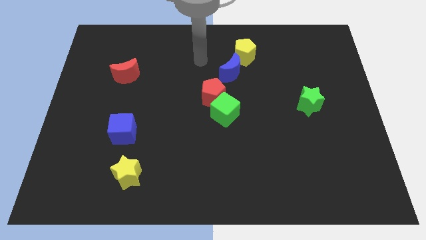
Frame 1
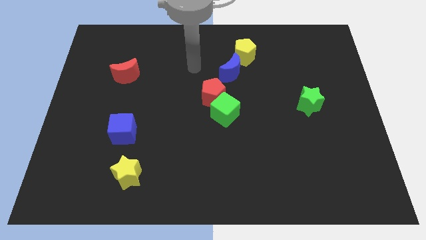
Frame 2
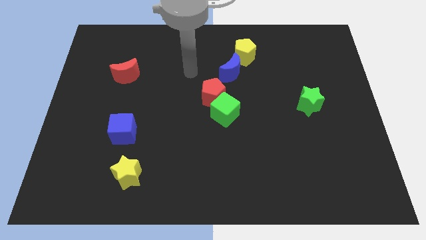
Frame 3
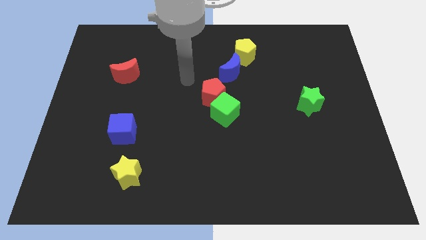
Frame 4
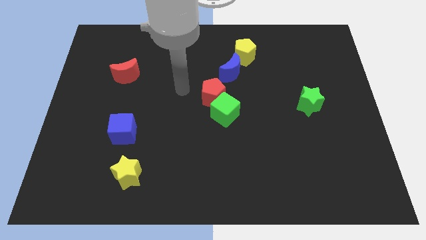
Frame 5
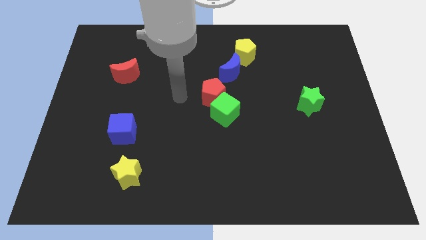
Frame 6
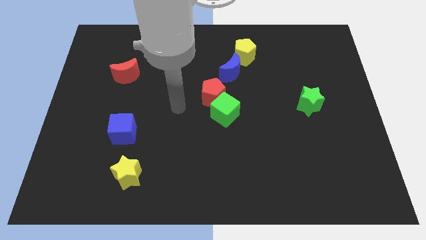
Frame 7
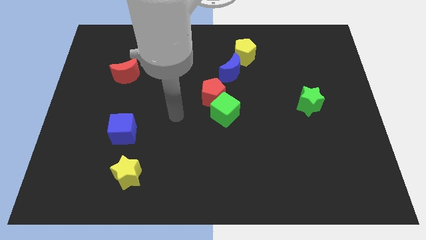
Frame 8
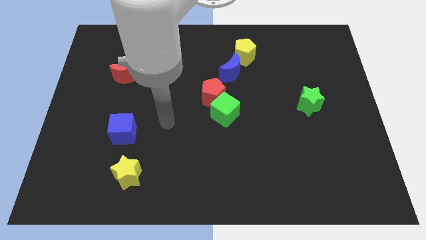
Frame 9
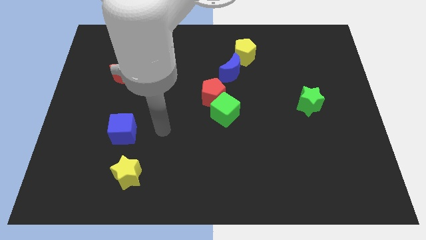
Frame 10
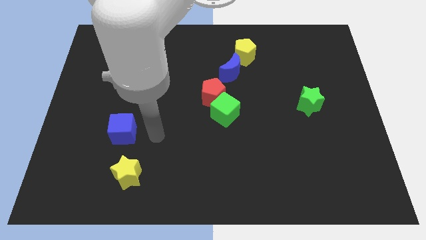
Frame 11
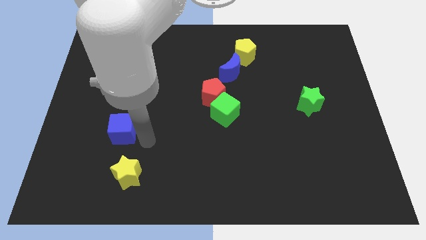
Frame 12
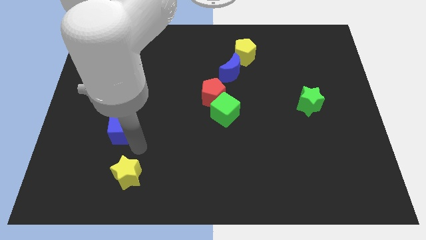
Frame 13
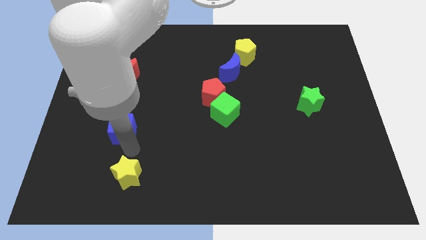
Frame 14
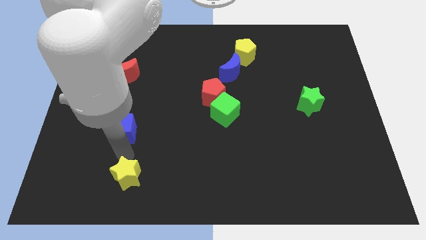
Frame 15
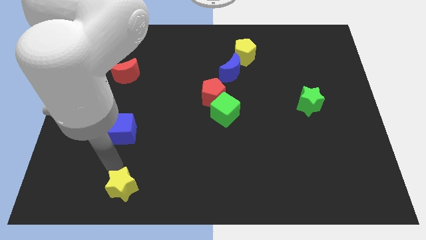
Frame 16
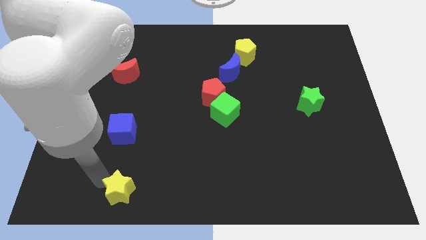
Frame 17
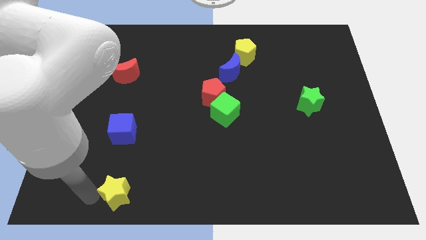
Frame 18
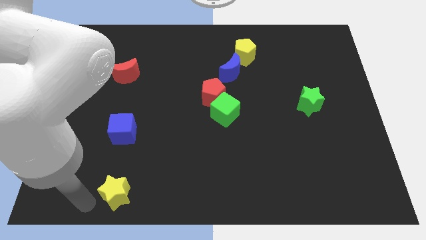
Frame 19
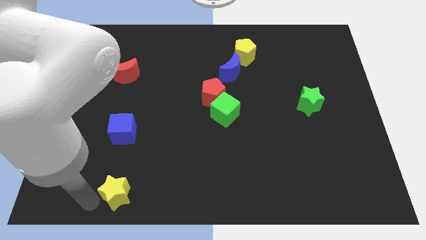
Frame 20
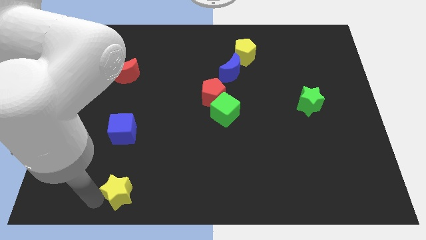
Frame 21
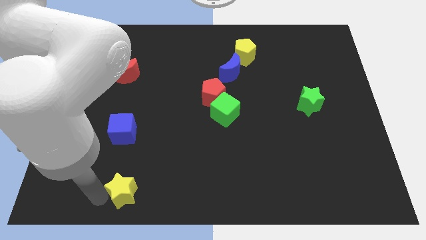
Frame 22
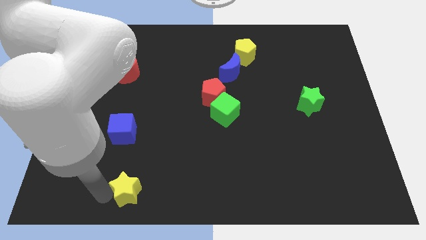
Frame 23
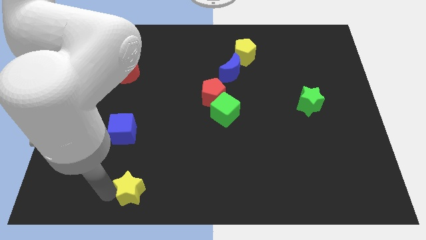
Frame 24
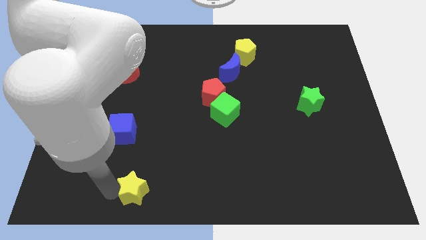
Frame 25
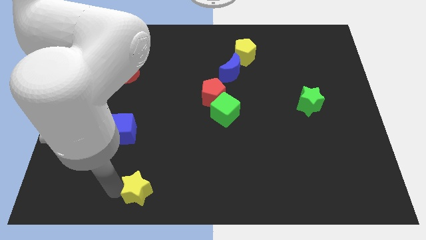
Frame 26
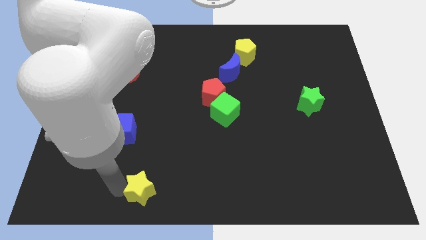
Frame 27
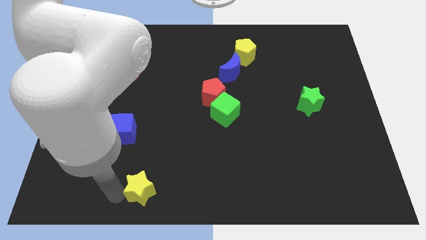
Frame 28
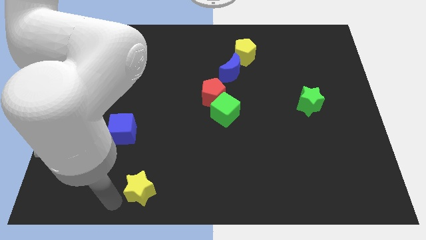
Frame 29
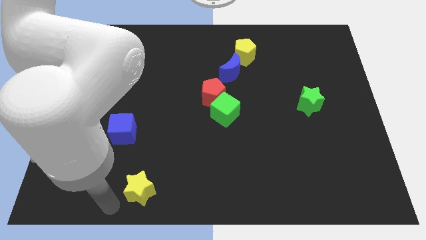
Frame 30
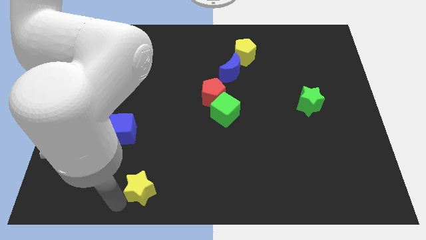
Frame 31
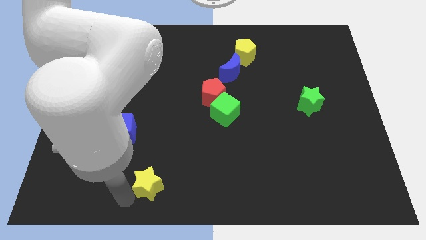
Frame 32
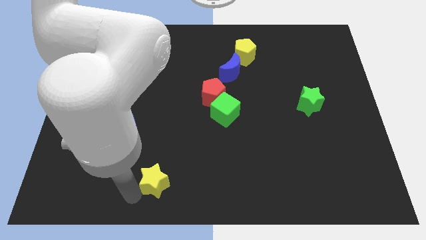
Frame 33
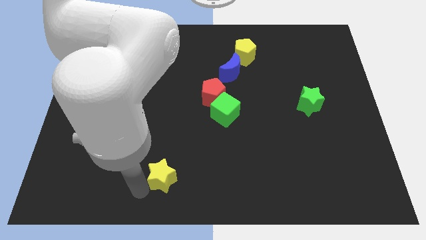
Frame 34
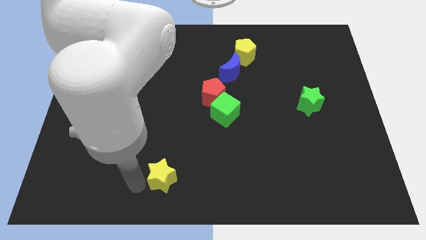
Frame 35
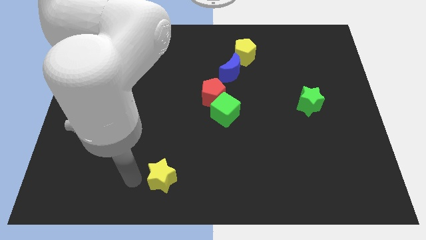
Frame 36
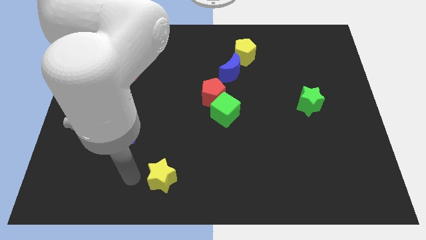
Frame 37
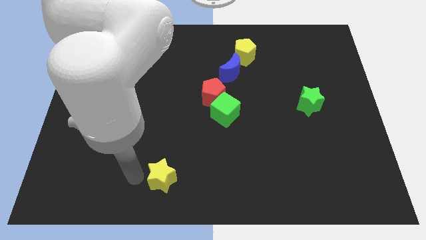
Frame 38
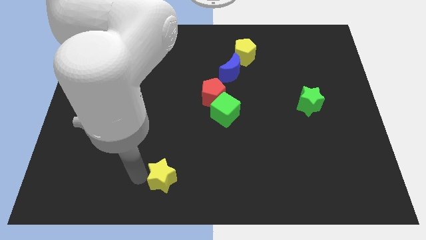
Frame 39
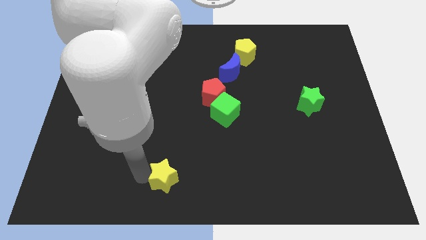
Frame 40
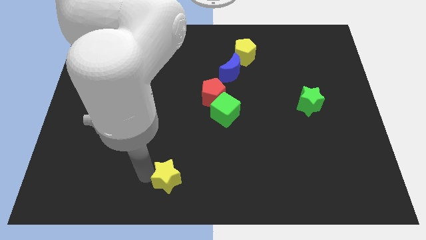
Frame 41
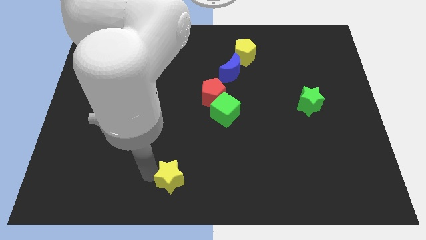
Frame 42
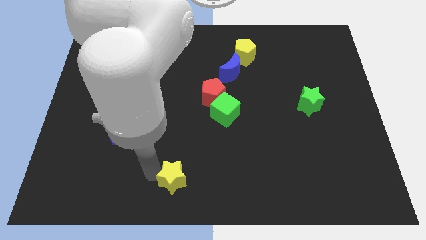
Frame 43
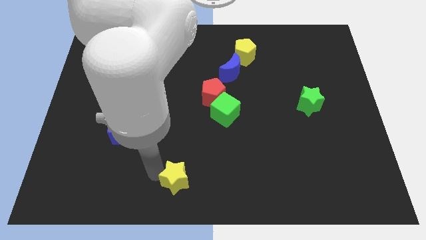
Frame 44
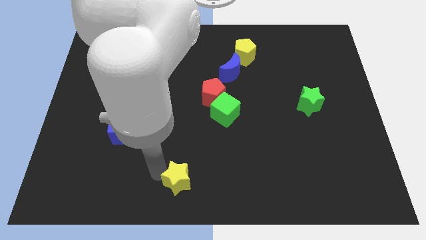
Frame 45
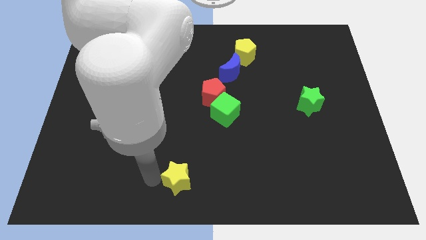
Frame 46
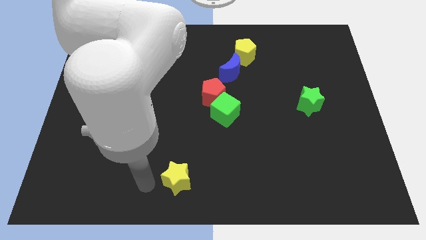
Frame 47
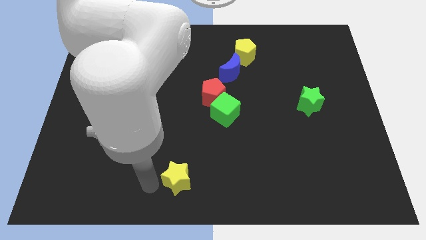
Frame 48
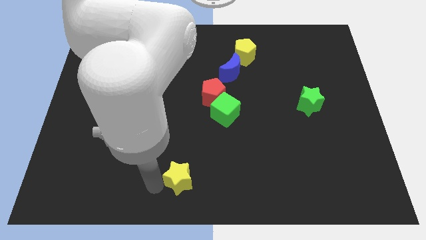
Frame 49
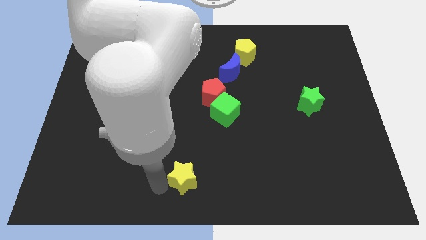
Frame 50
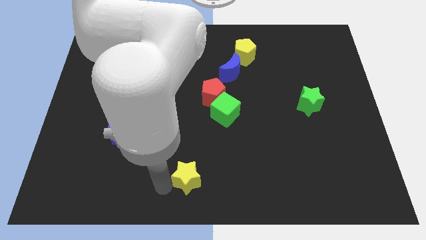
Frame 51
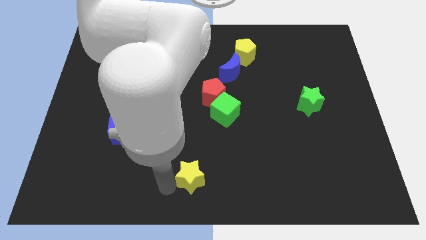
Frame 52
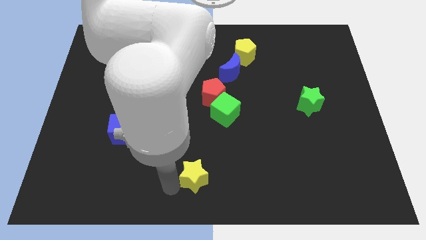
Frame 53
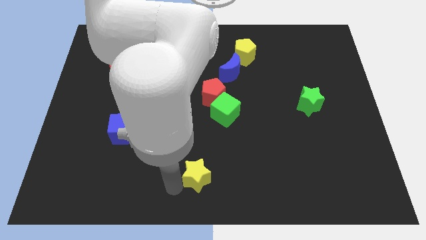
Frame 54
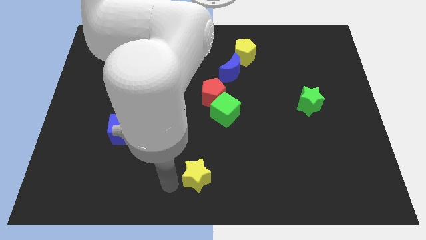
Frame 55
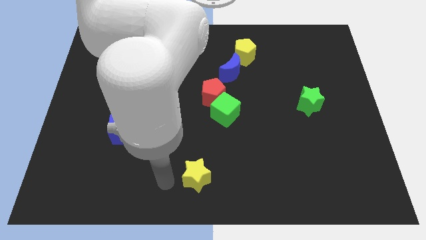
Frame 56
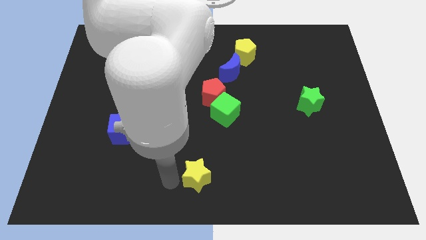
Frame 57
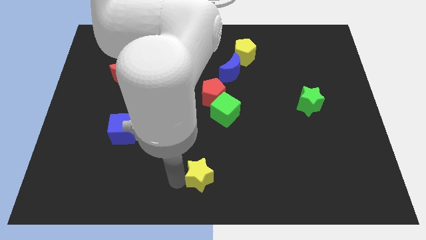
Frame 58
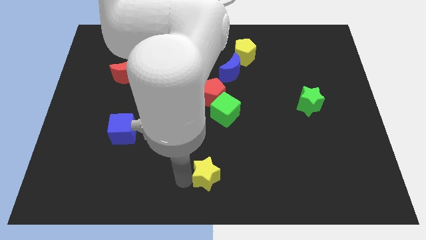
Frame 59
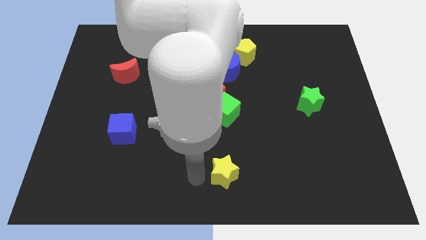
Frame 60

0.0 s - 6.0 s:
slide the yellow star to the right

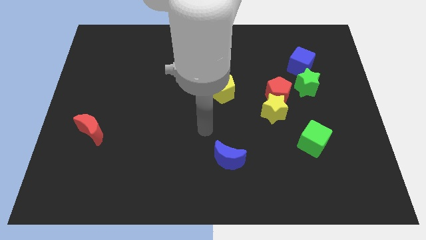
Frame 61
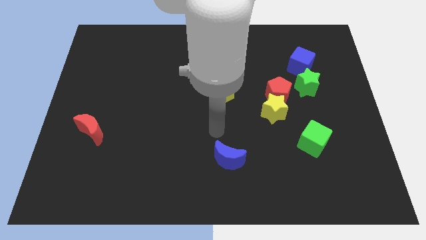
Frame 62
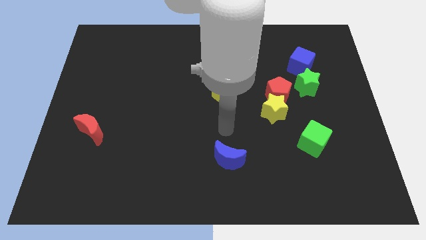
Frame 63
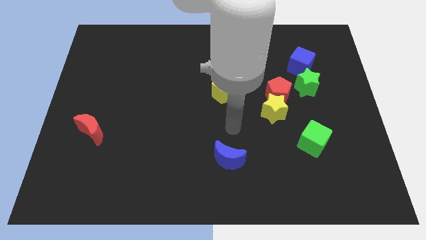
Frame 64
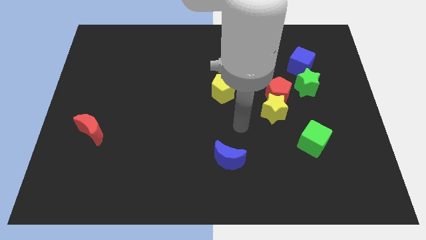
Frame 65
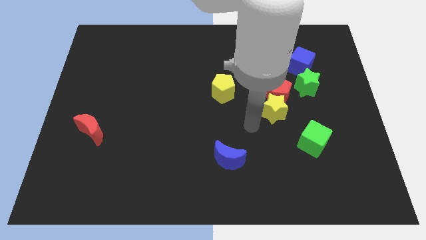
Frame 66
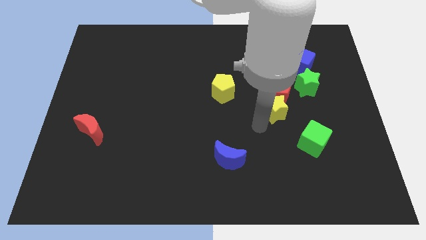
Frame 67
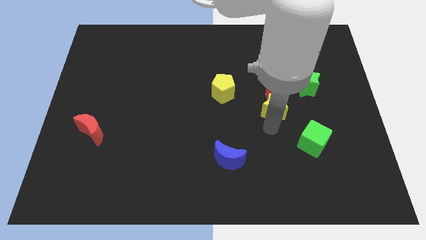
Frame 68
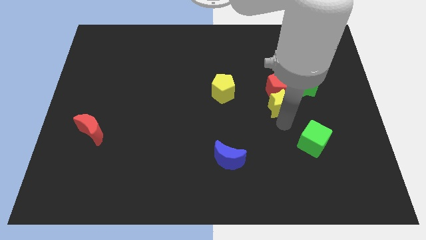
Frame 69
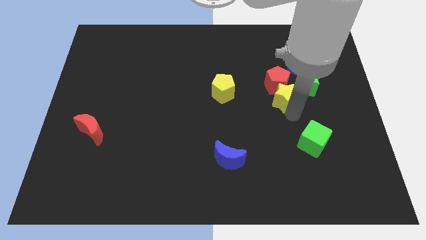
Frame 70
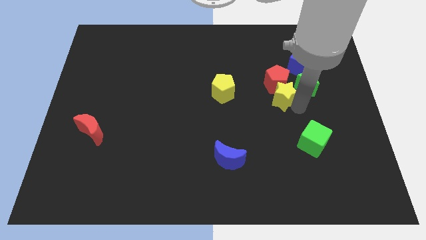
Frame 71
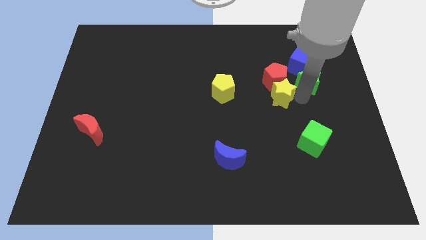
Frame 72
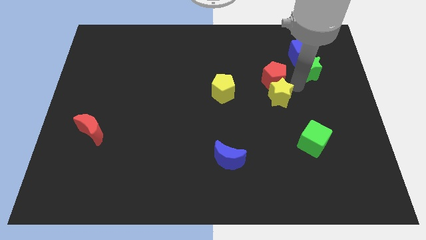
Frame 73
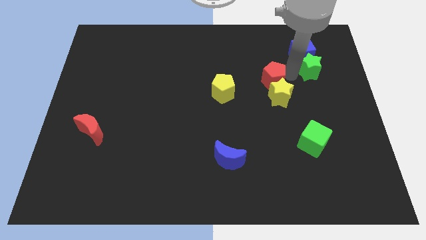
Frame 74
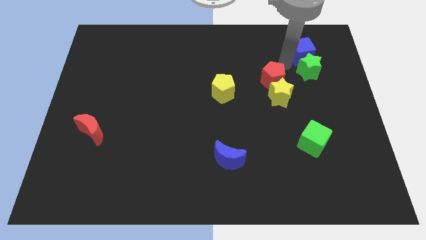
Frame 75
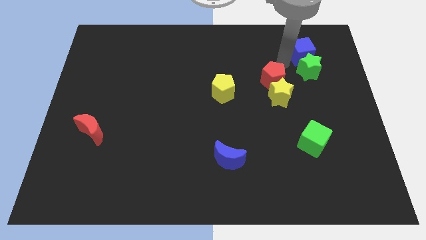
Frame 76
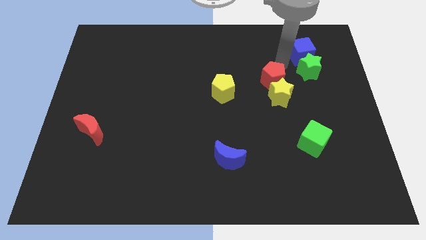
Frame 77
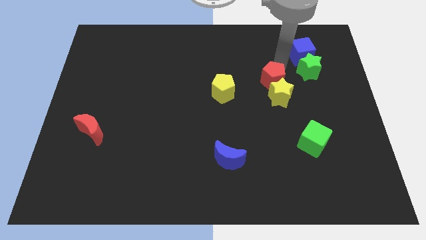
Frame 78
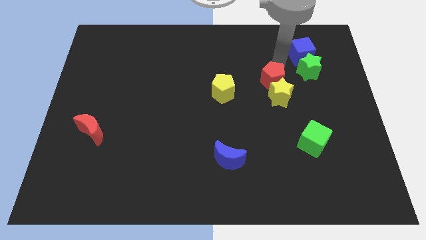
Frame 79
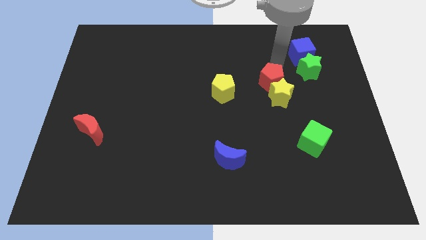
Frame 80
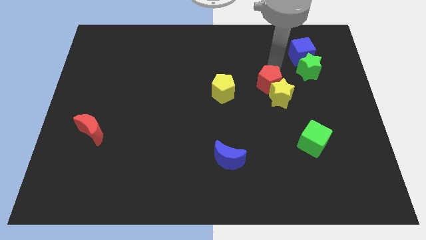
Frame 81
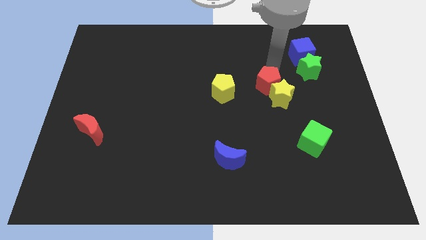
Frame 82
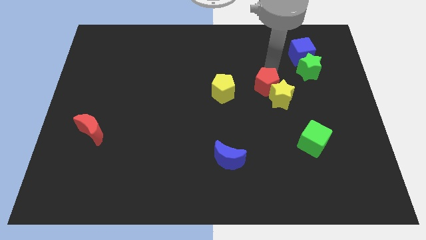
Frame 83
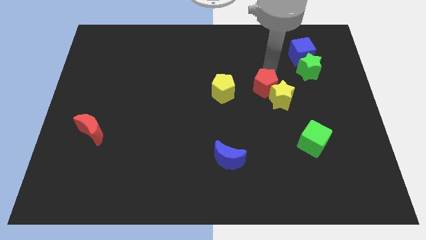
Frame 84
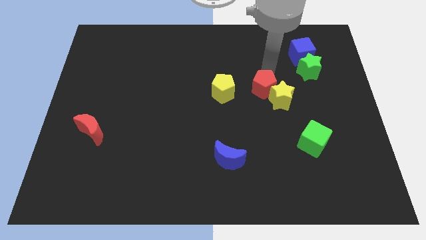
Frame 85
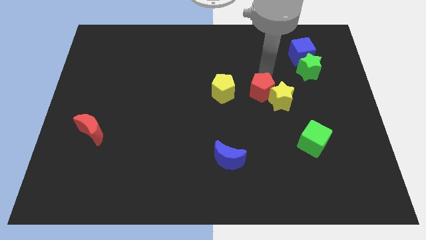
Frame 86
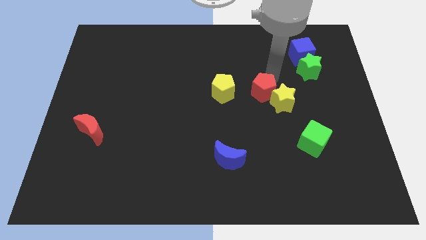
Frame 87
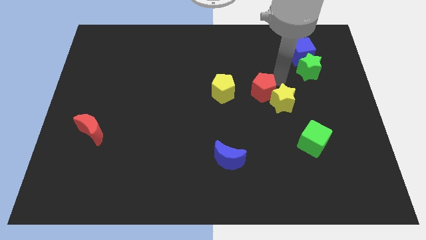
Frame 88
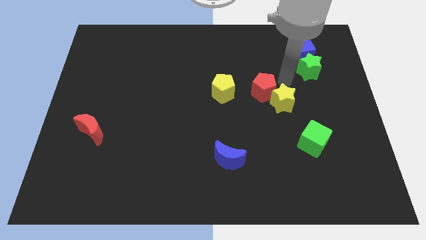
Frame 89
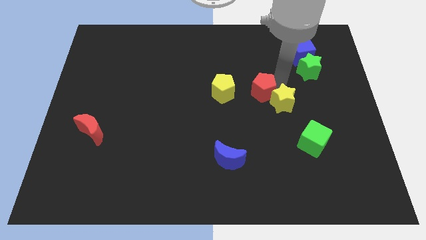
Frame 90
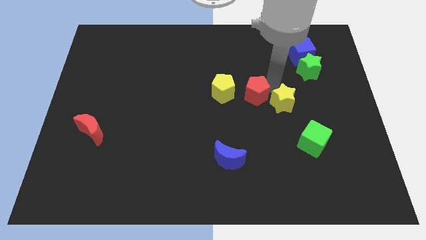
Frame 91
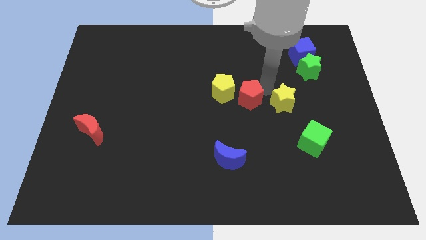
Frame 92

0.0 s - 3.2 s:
move the red pentagon to the left a little bit
